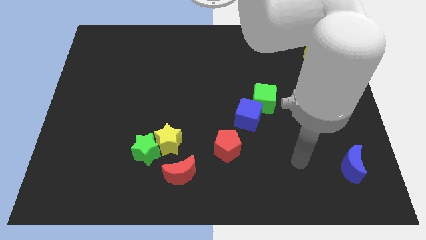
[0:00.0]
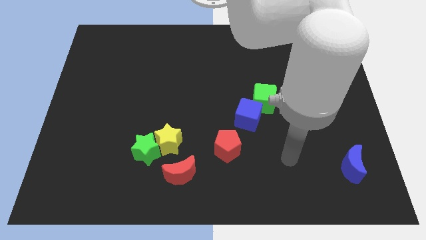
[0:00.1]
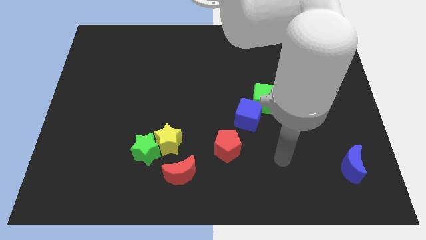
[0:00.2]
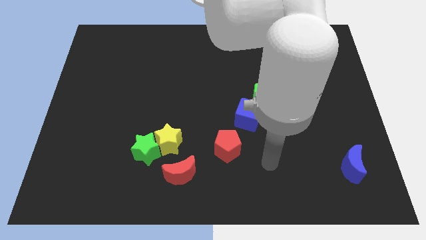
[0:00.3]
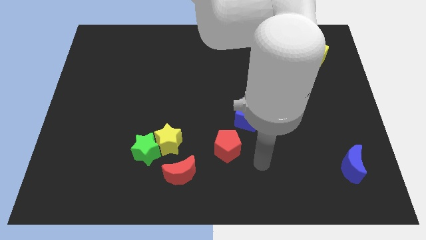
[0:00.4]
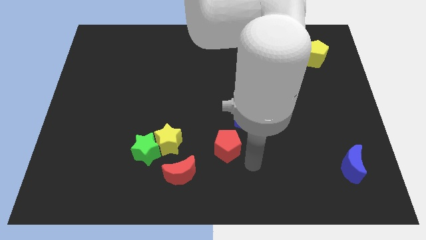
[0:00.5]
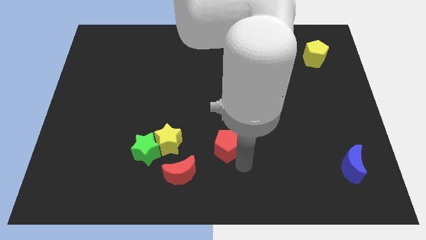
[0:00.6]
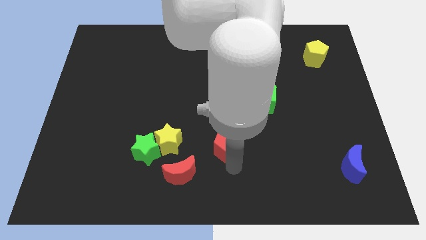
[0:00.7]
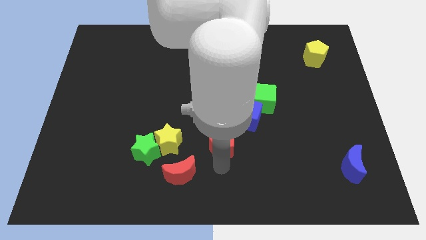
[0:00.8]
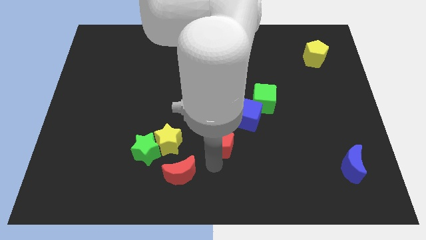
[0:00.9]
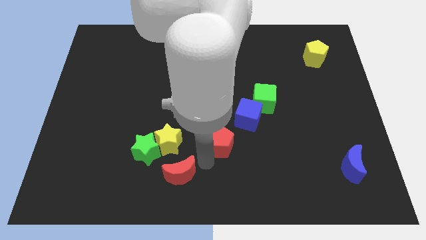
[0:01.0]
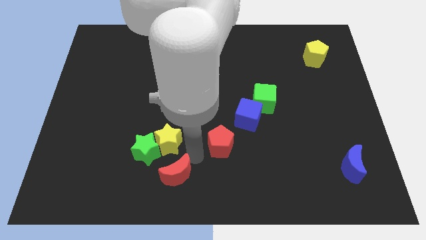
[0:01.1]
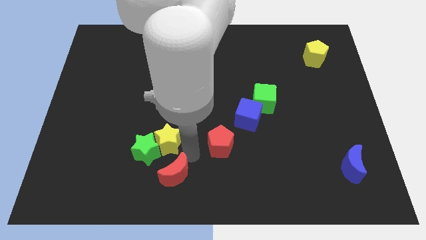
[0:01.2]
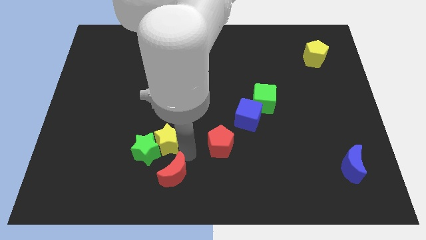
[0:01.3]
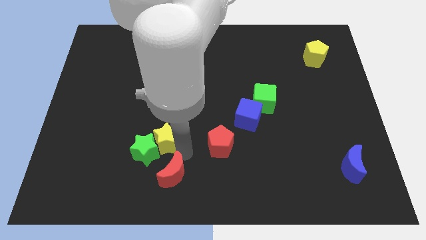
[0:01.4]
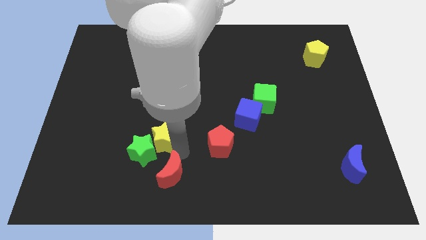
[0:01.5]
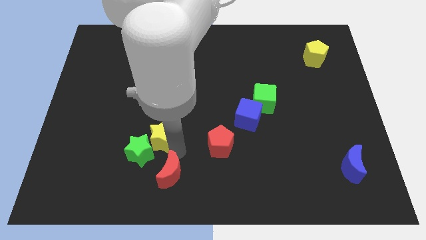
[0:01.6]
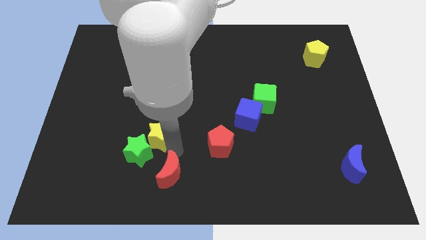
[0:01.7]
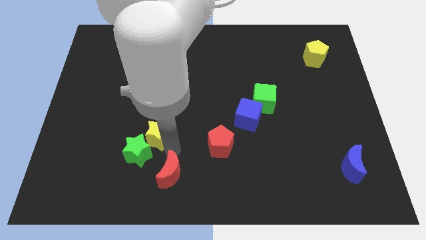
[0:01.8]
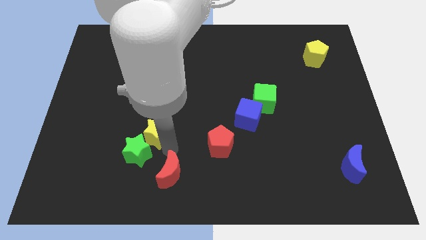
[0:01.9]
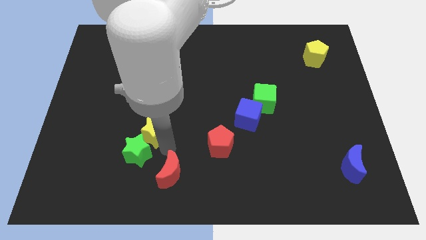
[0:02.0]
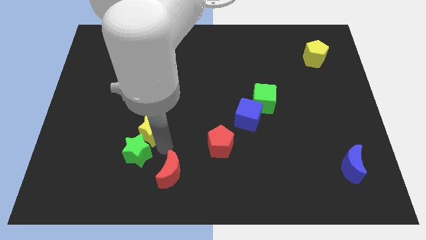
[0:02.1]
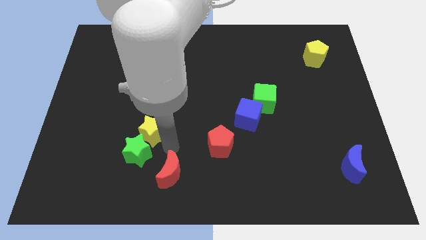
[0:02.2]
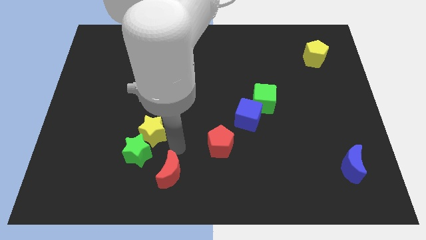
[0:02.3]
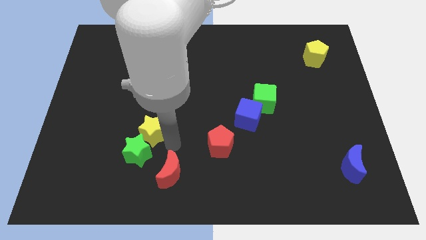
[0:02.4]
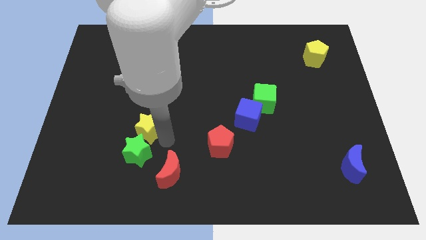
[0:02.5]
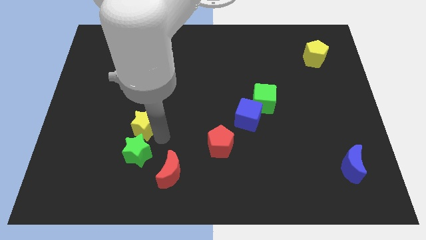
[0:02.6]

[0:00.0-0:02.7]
push the yellow star a little diagonally up and left

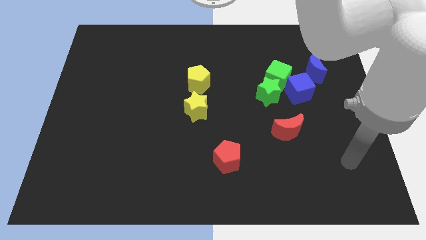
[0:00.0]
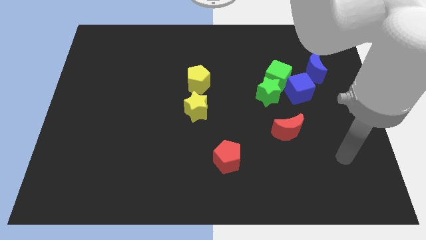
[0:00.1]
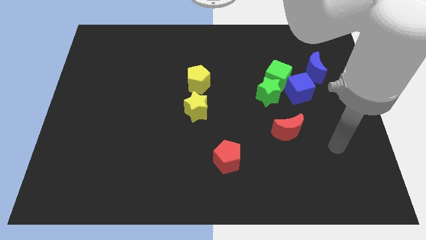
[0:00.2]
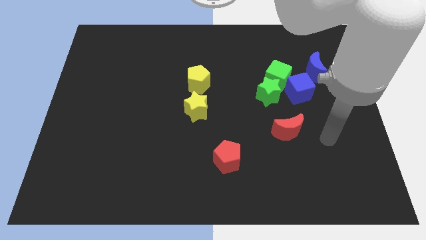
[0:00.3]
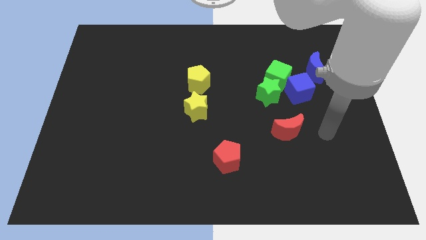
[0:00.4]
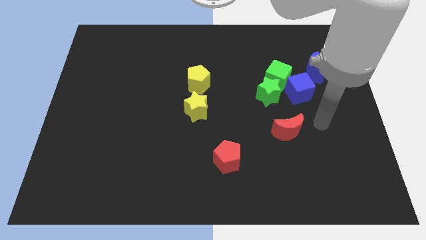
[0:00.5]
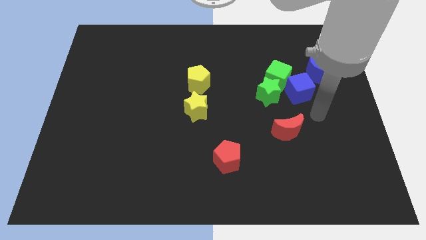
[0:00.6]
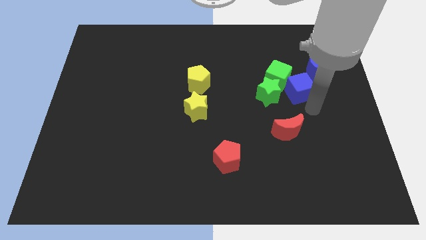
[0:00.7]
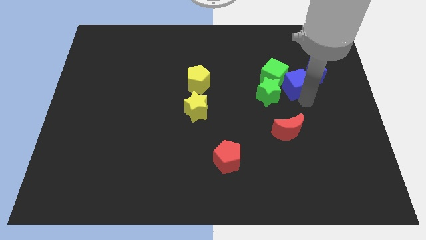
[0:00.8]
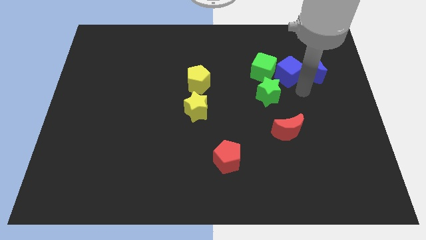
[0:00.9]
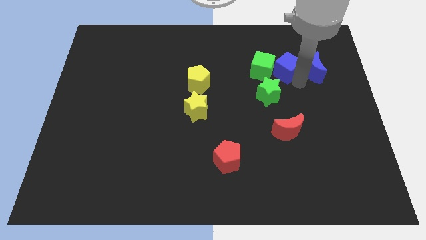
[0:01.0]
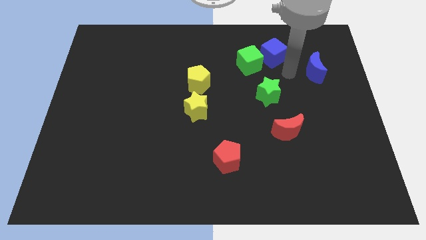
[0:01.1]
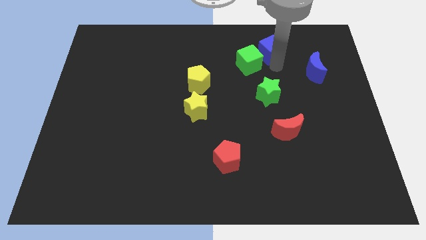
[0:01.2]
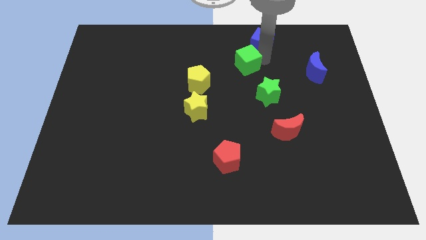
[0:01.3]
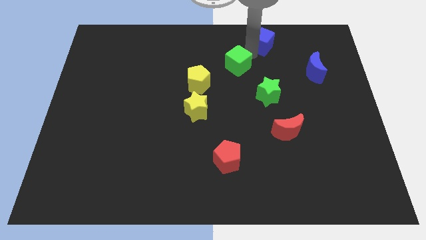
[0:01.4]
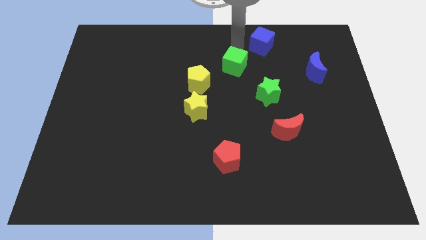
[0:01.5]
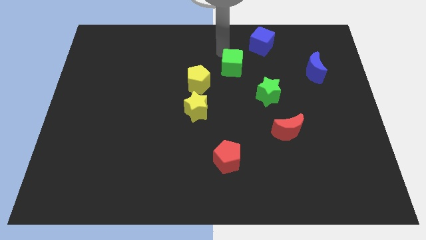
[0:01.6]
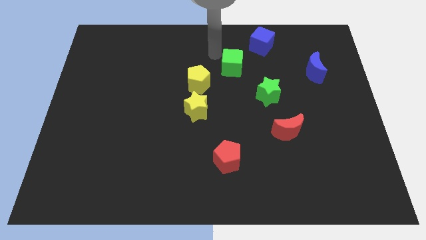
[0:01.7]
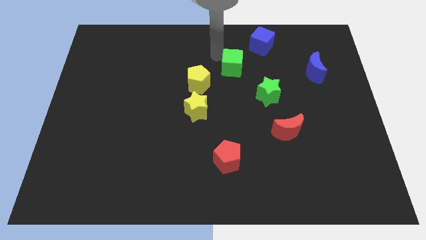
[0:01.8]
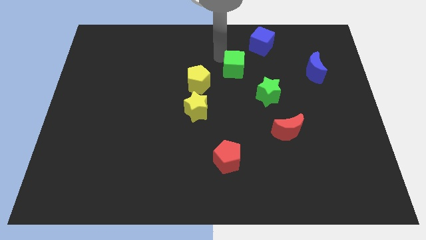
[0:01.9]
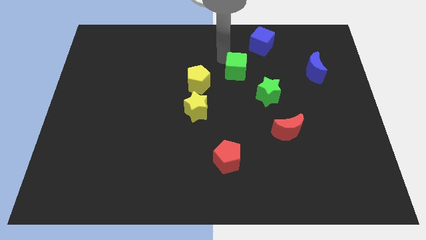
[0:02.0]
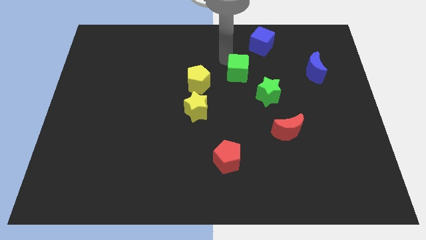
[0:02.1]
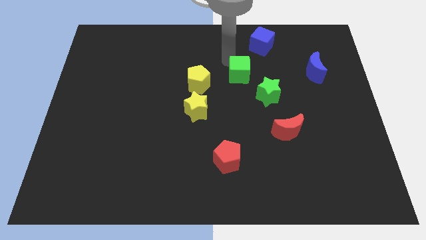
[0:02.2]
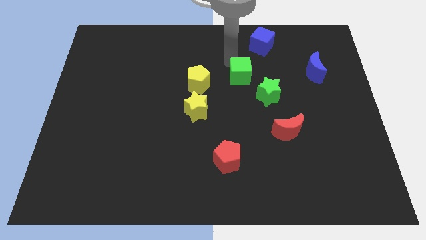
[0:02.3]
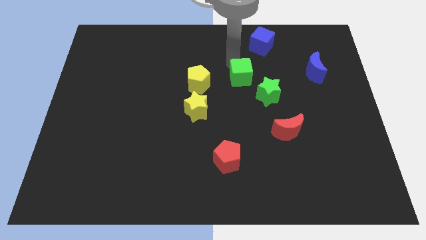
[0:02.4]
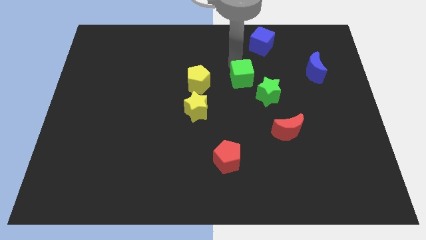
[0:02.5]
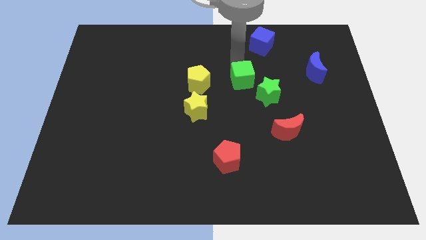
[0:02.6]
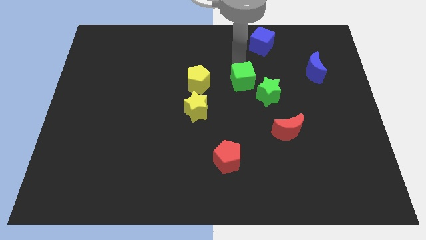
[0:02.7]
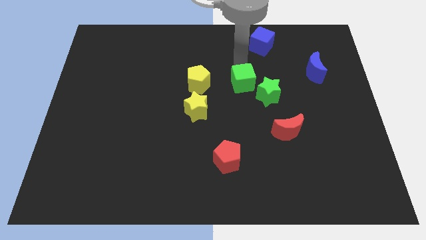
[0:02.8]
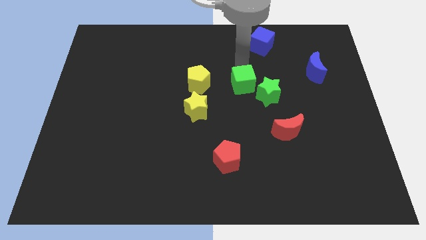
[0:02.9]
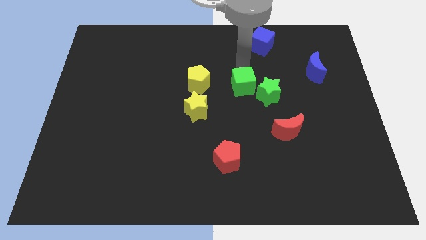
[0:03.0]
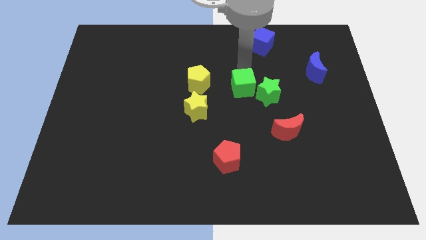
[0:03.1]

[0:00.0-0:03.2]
slide the green cube a little bit diagonally down and left

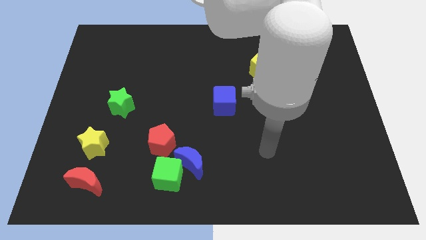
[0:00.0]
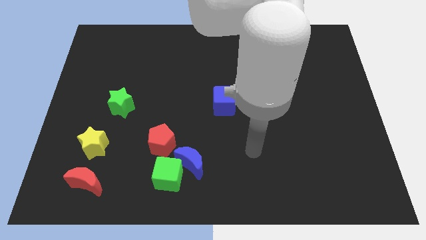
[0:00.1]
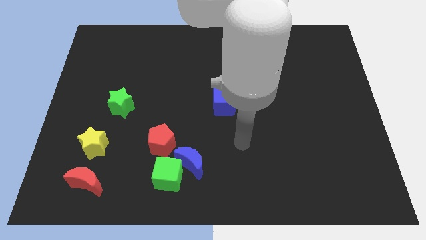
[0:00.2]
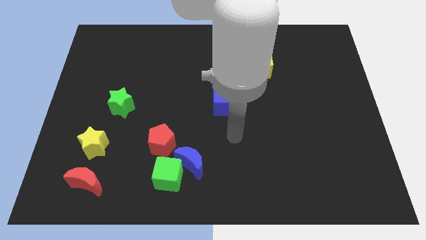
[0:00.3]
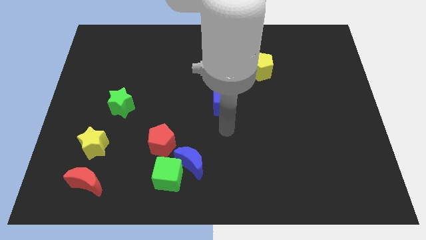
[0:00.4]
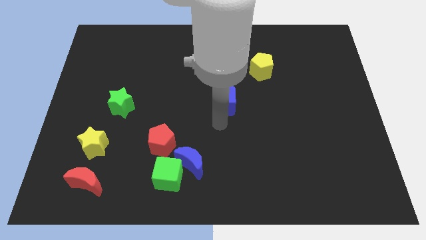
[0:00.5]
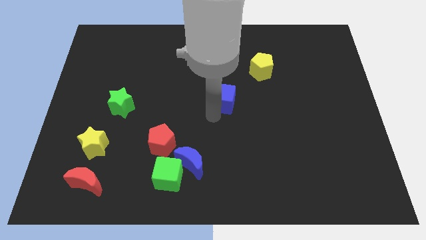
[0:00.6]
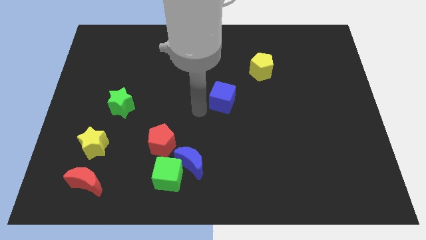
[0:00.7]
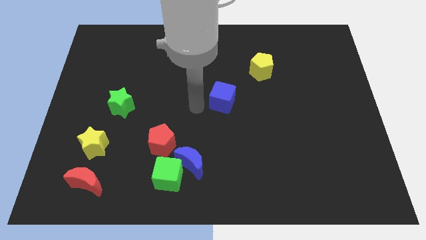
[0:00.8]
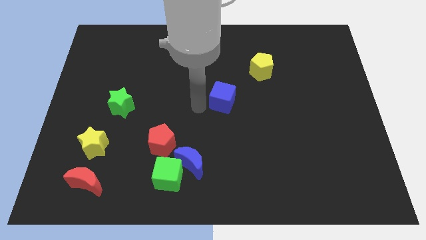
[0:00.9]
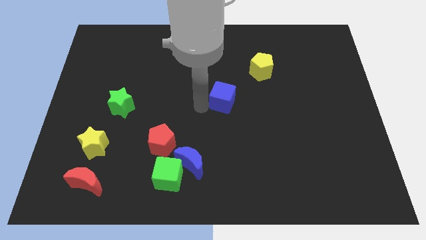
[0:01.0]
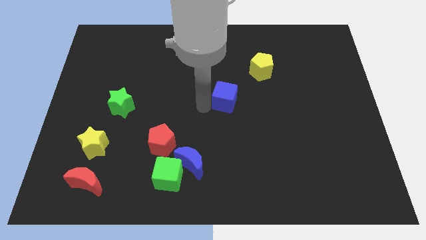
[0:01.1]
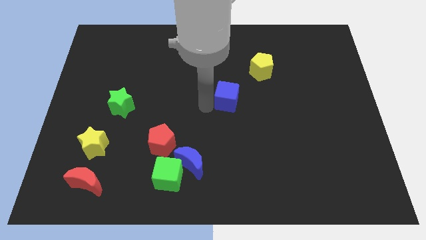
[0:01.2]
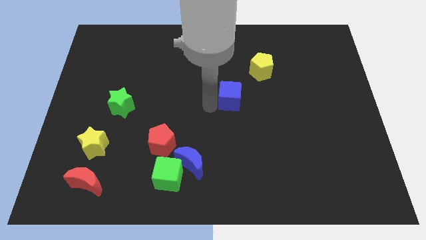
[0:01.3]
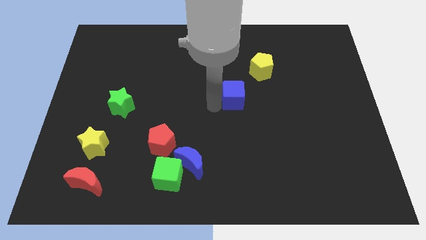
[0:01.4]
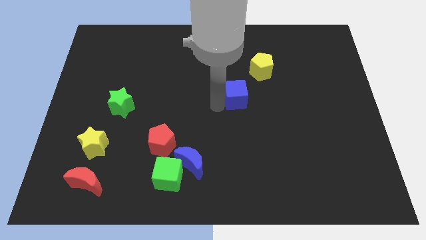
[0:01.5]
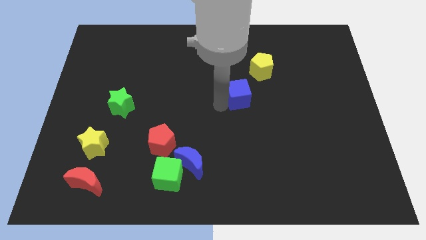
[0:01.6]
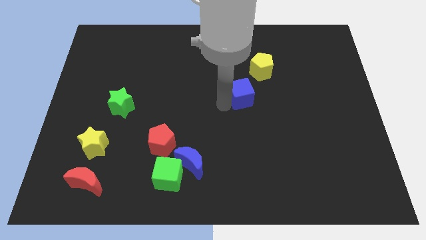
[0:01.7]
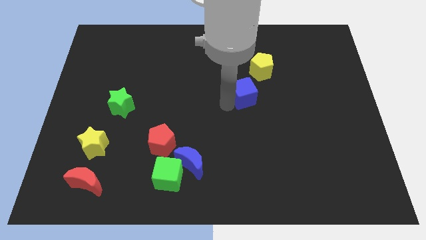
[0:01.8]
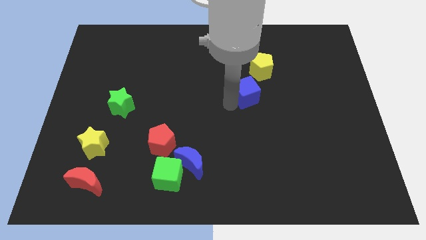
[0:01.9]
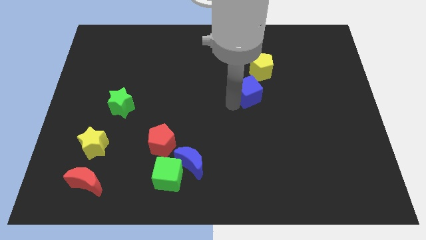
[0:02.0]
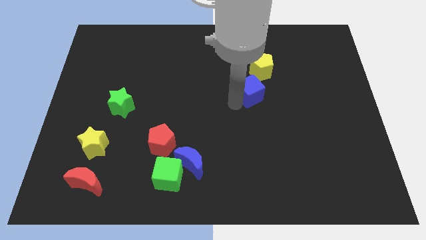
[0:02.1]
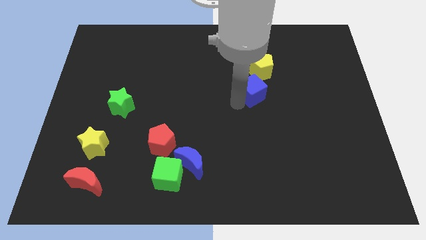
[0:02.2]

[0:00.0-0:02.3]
slightly push the blue cube up and right diagonally
